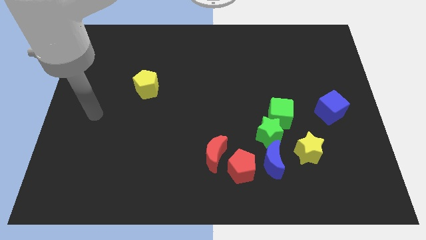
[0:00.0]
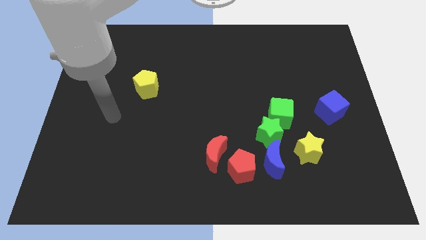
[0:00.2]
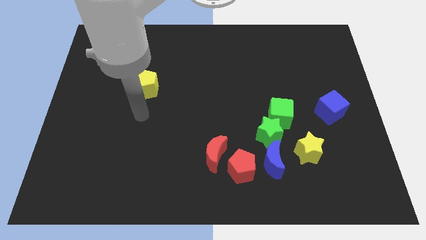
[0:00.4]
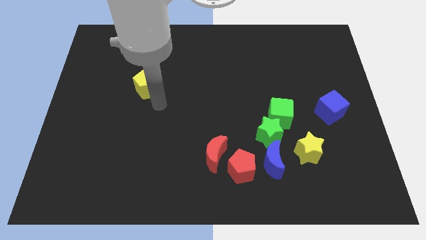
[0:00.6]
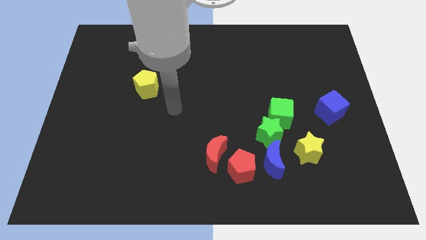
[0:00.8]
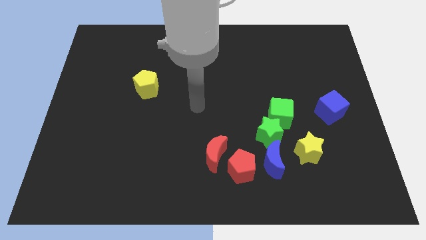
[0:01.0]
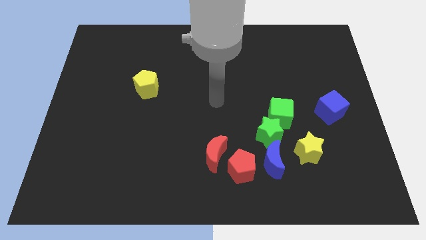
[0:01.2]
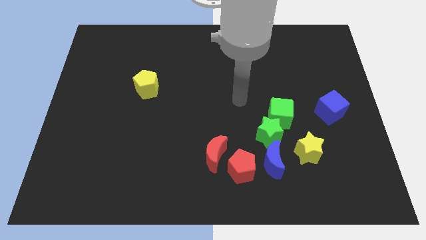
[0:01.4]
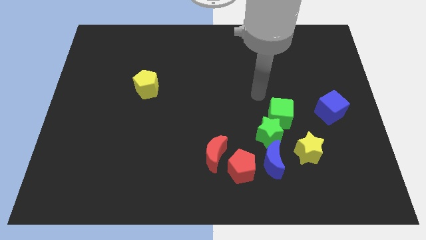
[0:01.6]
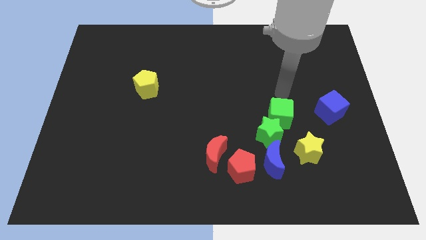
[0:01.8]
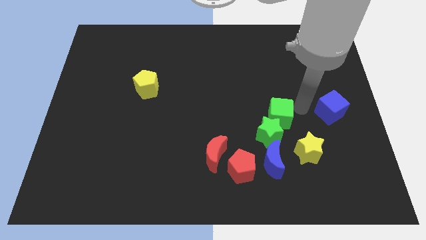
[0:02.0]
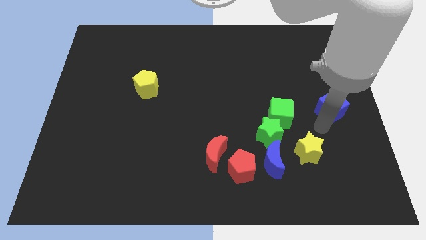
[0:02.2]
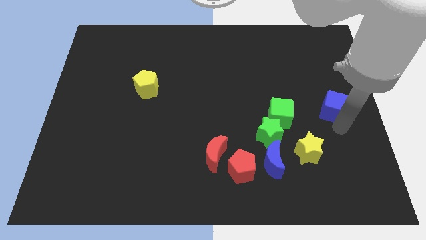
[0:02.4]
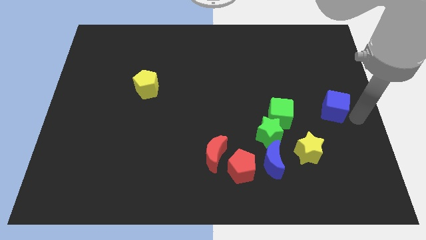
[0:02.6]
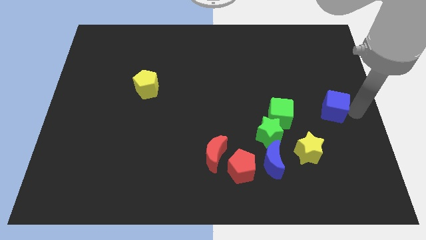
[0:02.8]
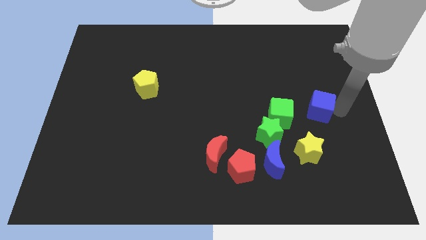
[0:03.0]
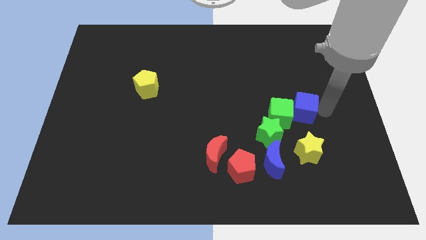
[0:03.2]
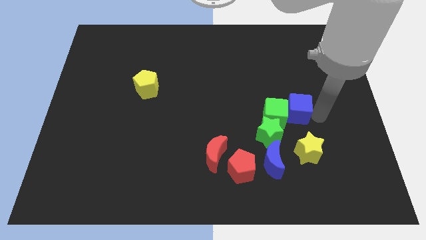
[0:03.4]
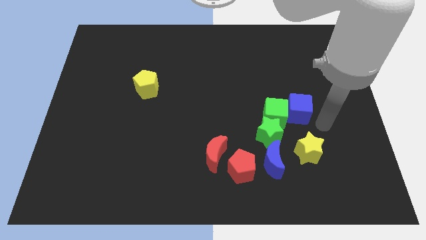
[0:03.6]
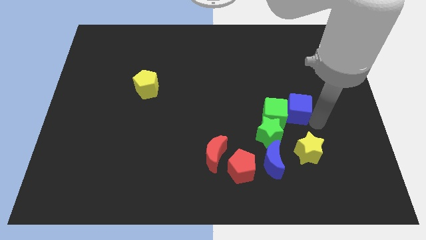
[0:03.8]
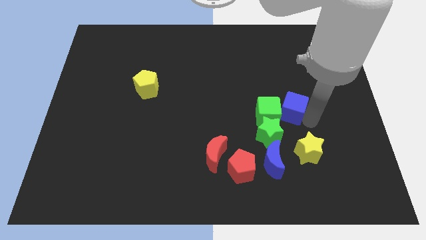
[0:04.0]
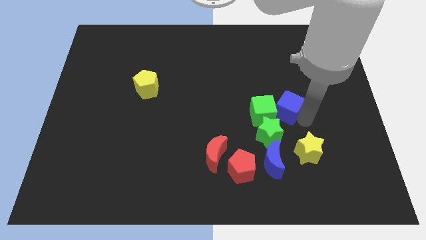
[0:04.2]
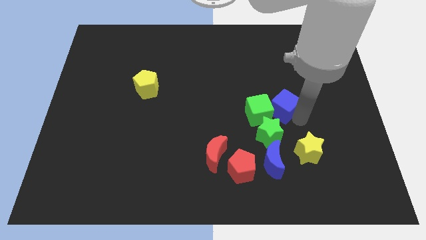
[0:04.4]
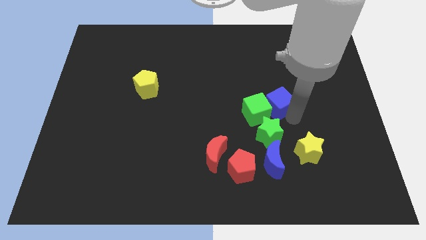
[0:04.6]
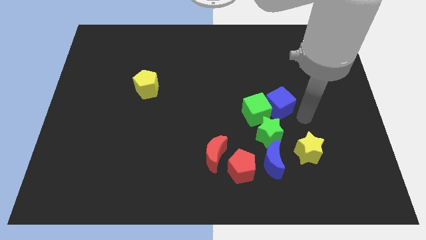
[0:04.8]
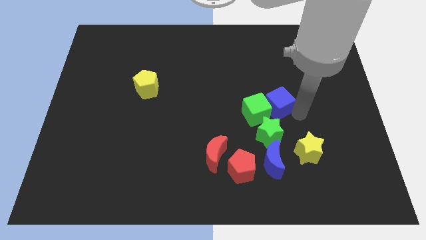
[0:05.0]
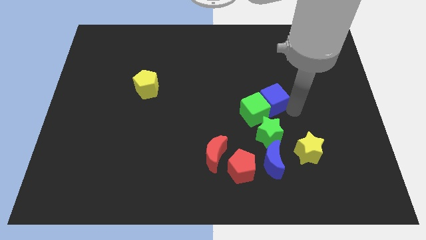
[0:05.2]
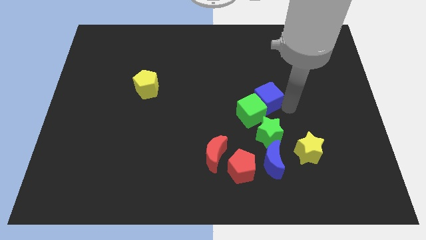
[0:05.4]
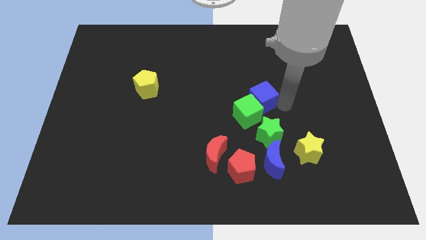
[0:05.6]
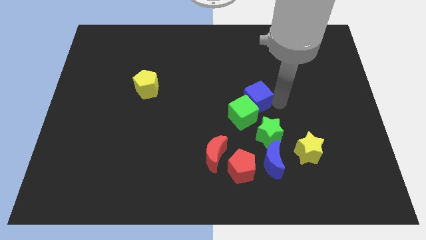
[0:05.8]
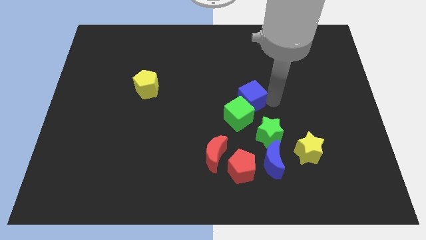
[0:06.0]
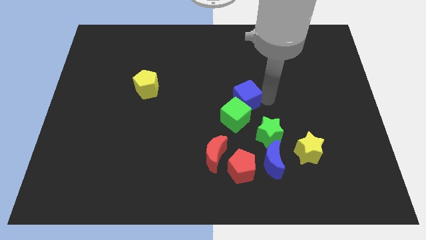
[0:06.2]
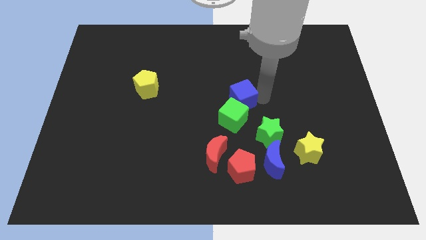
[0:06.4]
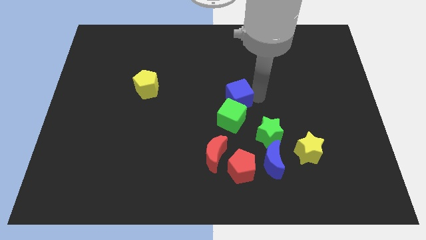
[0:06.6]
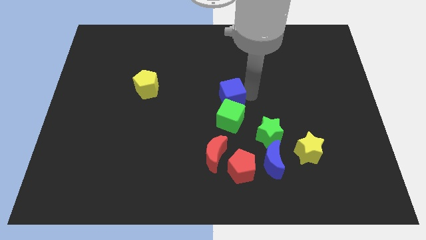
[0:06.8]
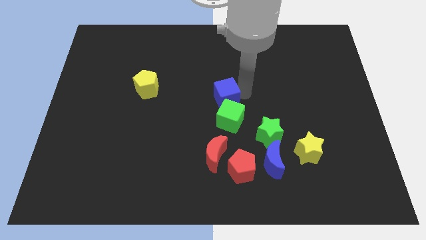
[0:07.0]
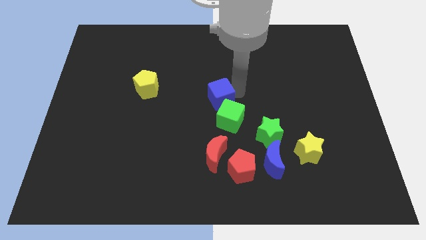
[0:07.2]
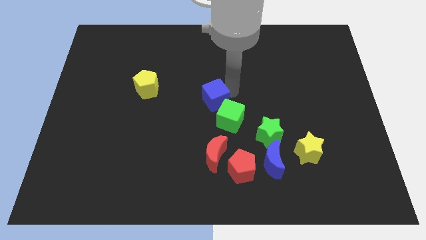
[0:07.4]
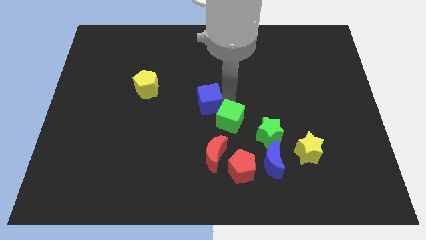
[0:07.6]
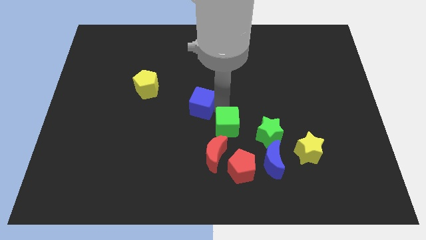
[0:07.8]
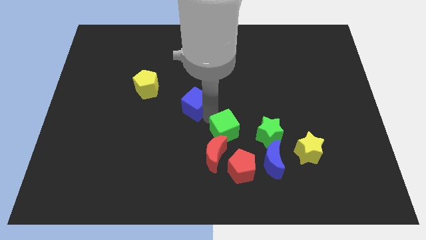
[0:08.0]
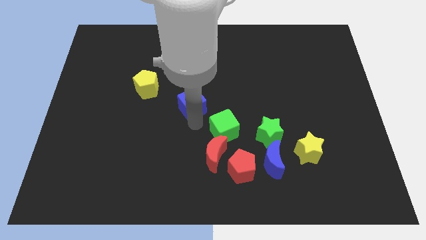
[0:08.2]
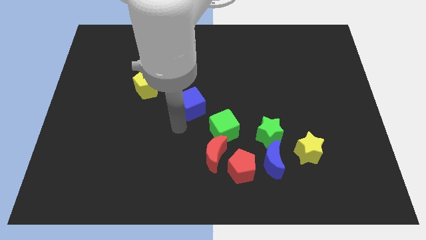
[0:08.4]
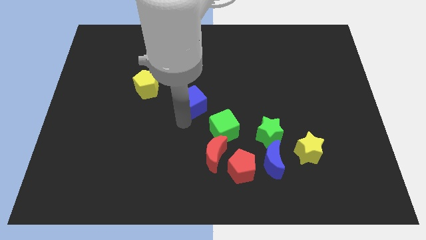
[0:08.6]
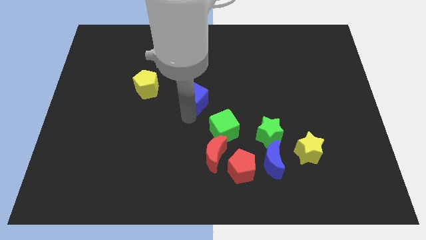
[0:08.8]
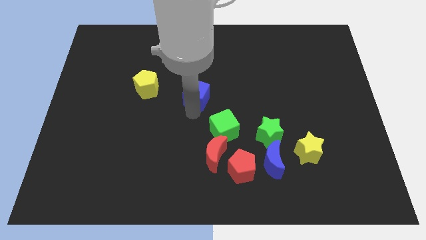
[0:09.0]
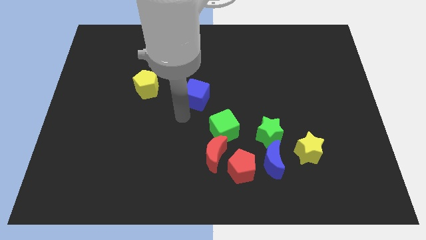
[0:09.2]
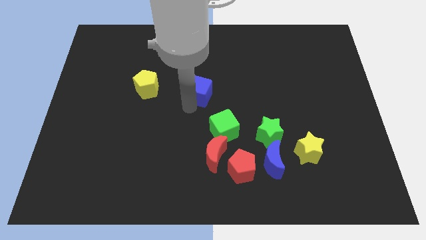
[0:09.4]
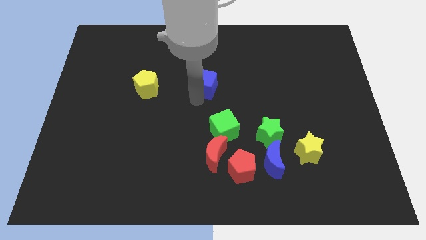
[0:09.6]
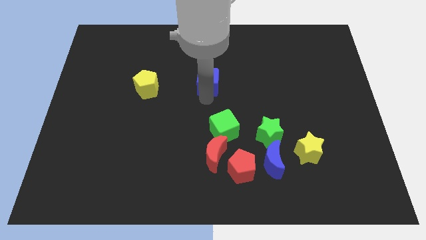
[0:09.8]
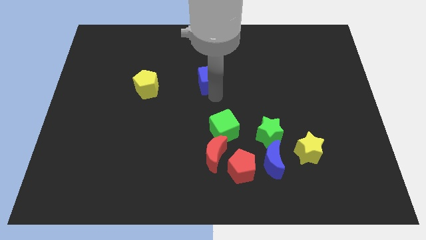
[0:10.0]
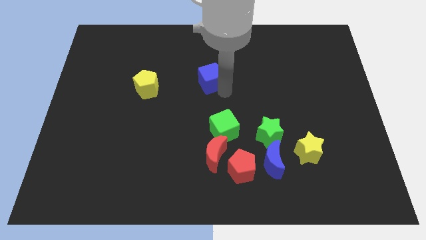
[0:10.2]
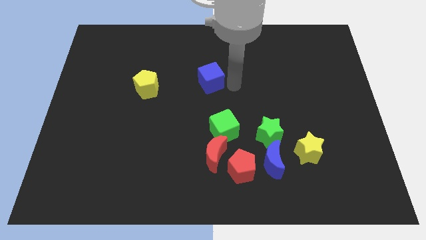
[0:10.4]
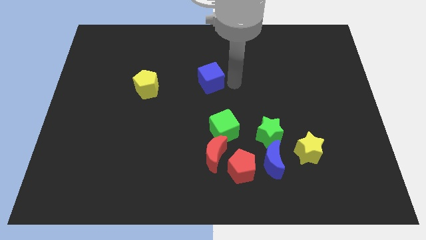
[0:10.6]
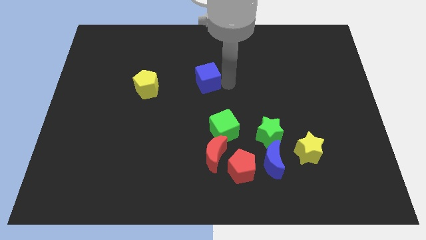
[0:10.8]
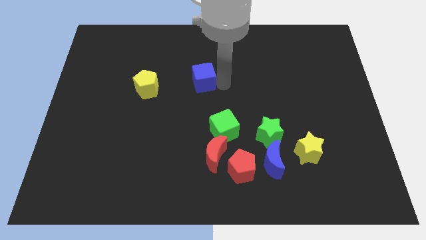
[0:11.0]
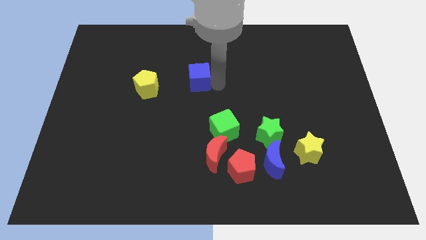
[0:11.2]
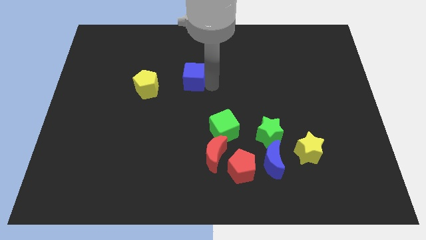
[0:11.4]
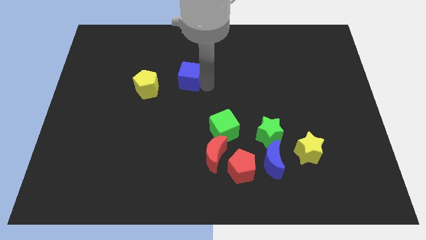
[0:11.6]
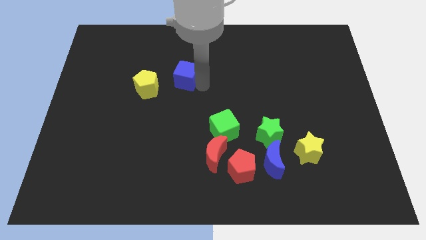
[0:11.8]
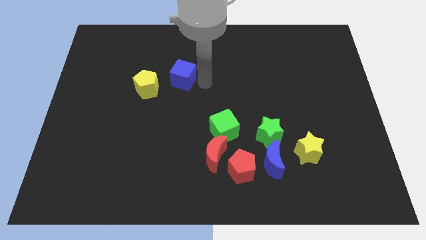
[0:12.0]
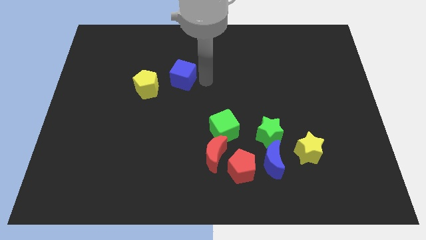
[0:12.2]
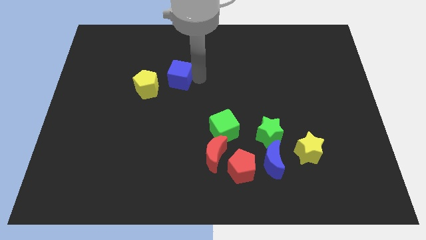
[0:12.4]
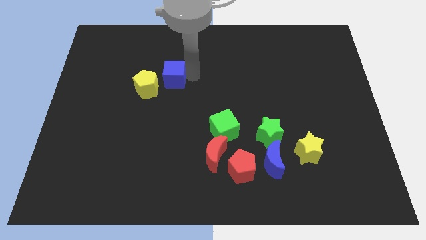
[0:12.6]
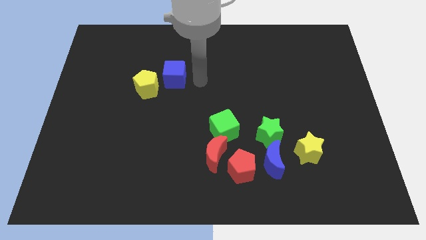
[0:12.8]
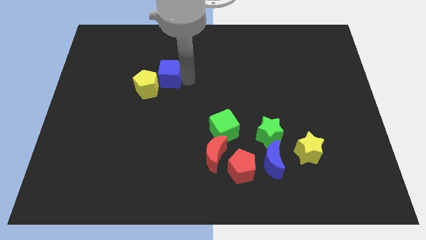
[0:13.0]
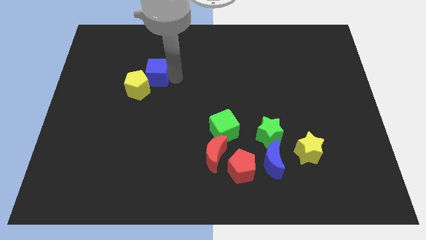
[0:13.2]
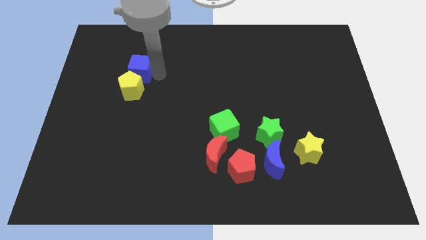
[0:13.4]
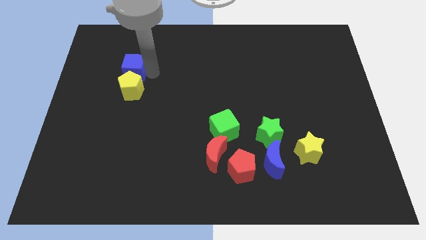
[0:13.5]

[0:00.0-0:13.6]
move the blue cube to the top left side of the yellow pentagon
